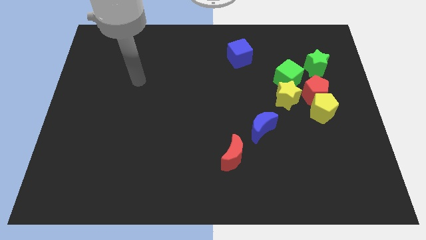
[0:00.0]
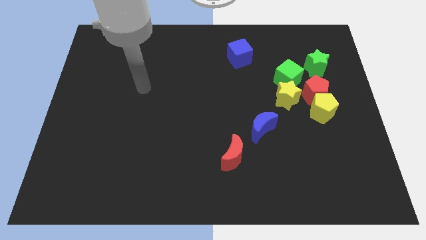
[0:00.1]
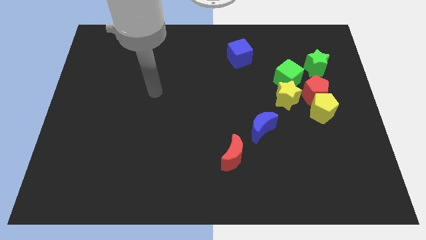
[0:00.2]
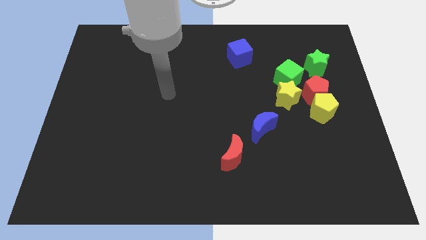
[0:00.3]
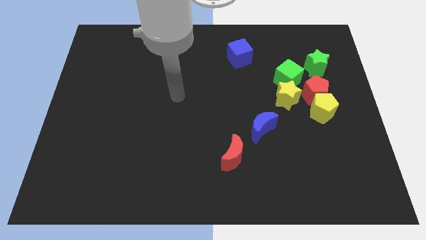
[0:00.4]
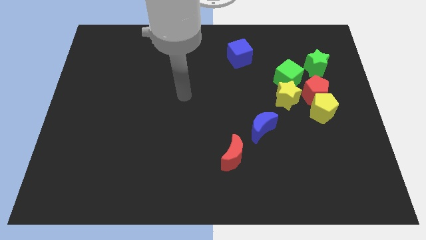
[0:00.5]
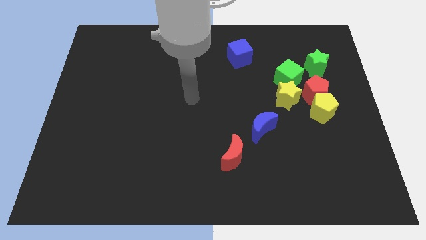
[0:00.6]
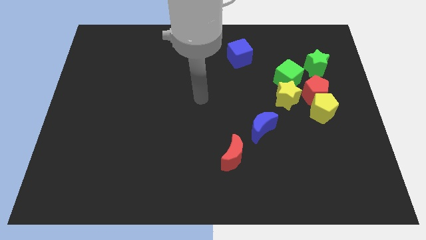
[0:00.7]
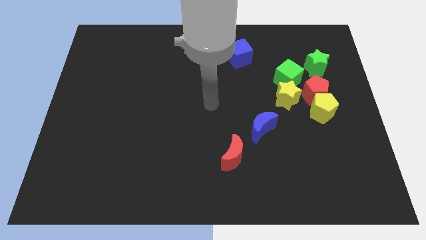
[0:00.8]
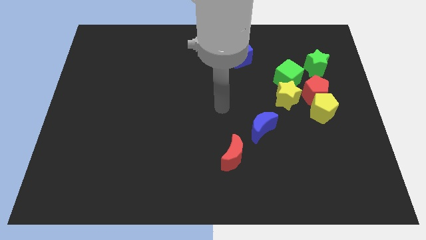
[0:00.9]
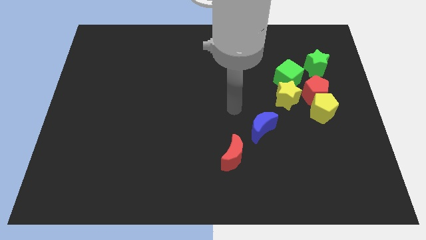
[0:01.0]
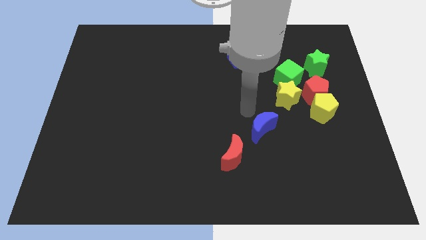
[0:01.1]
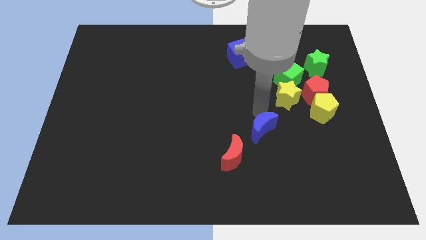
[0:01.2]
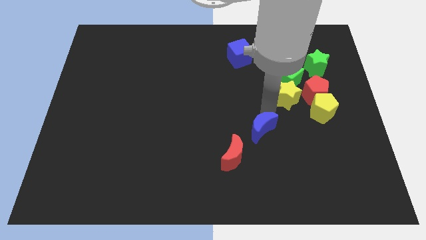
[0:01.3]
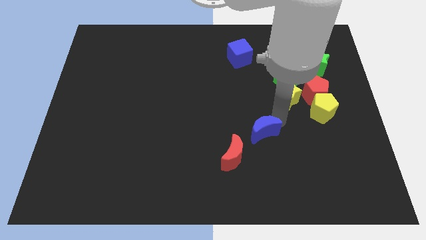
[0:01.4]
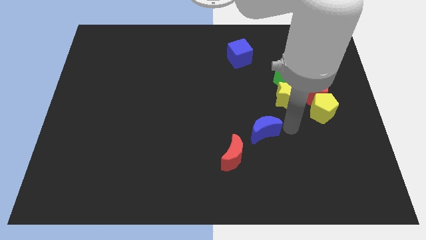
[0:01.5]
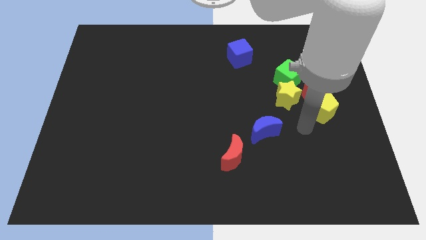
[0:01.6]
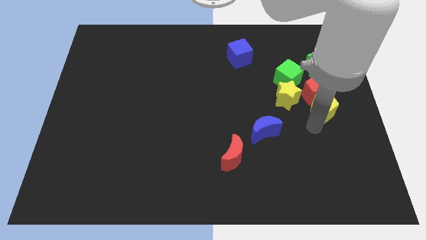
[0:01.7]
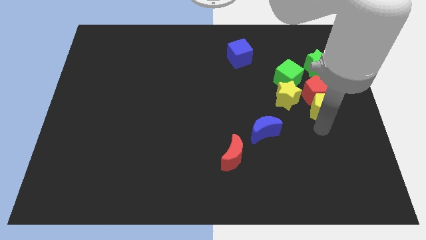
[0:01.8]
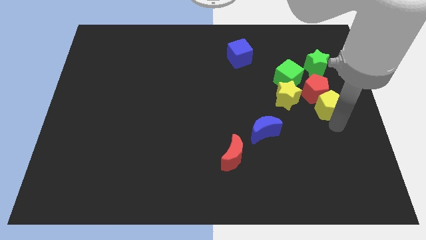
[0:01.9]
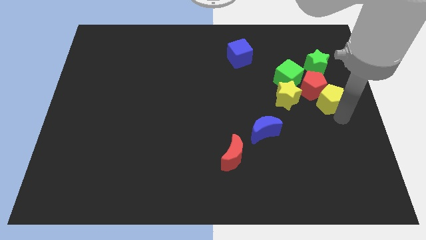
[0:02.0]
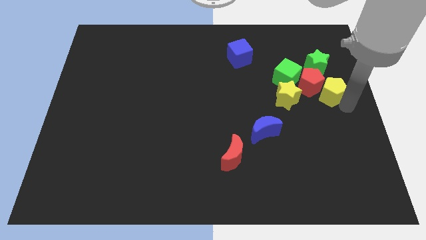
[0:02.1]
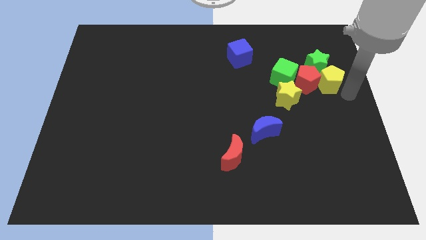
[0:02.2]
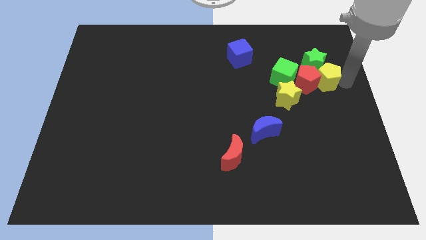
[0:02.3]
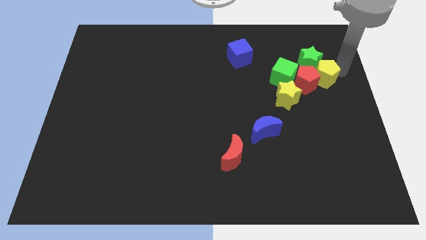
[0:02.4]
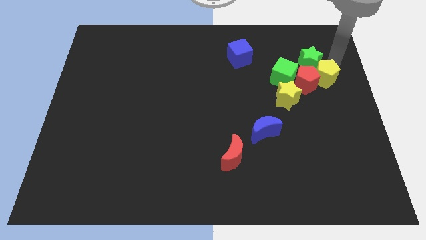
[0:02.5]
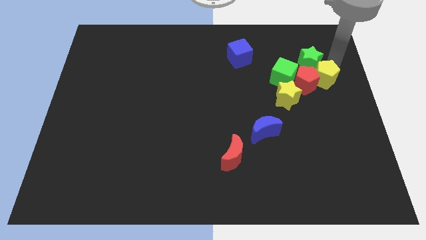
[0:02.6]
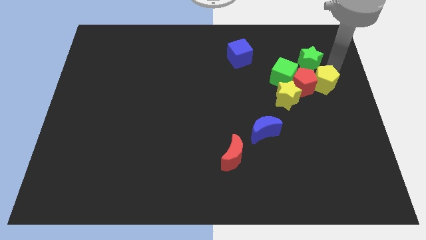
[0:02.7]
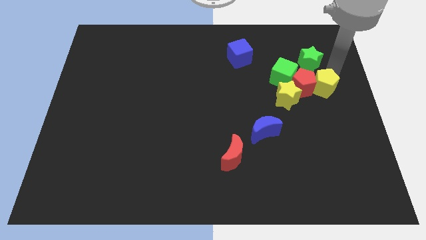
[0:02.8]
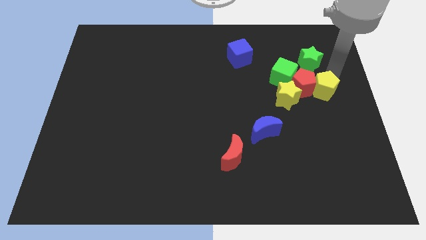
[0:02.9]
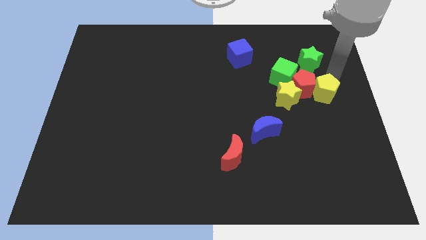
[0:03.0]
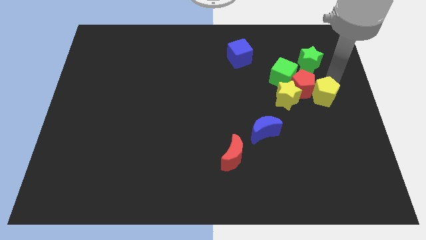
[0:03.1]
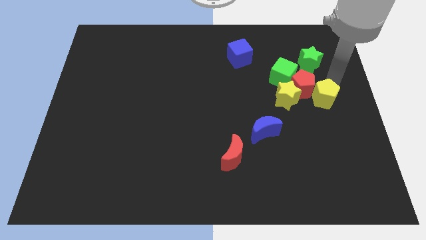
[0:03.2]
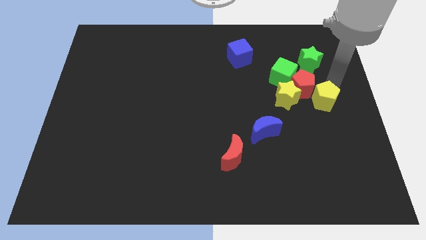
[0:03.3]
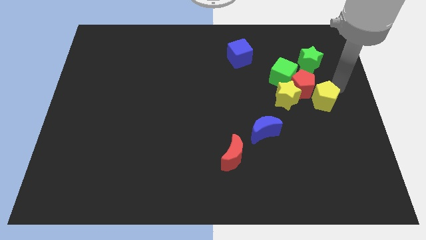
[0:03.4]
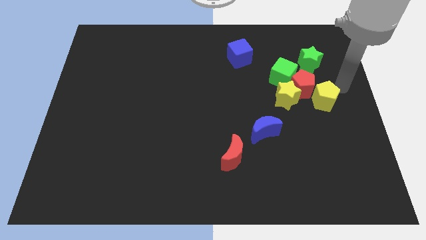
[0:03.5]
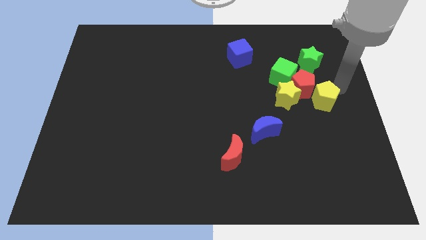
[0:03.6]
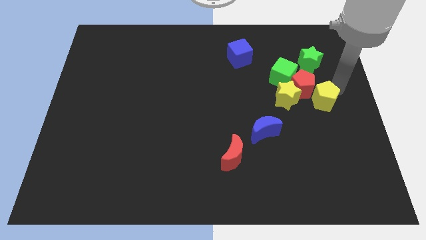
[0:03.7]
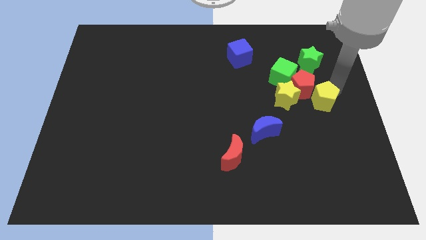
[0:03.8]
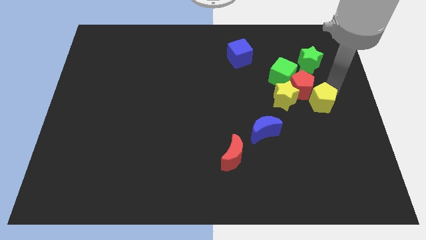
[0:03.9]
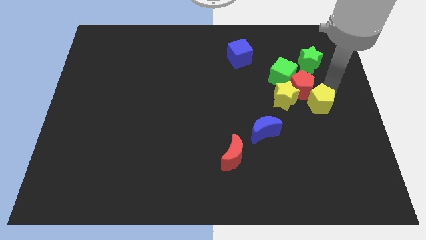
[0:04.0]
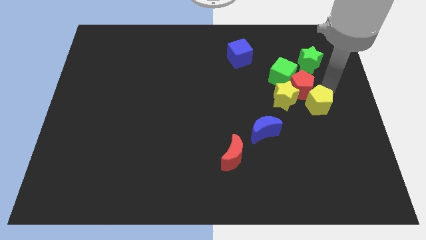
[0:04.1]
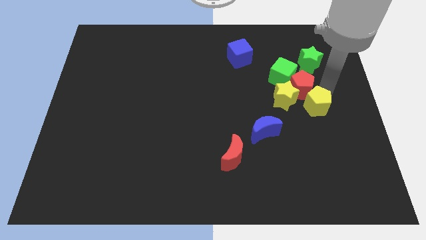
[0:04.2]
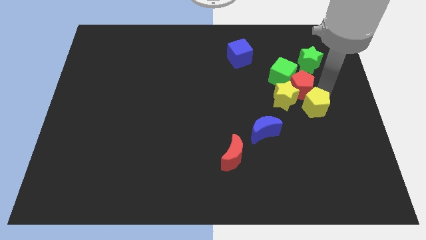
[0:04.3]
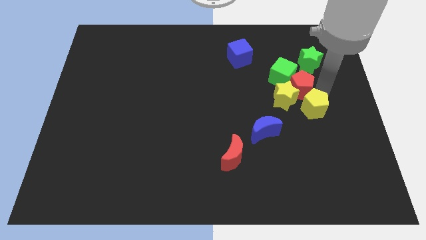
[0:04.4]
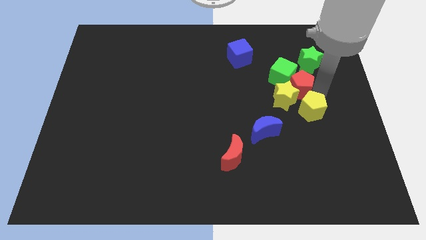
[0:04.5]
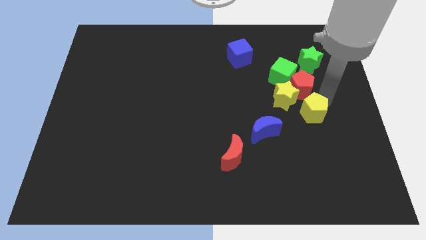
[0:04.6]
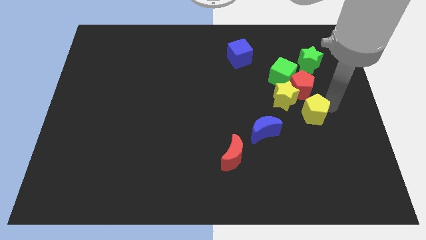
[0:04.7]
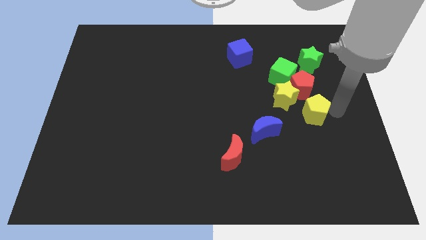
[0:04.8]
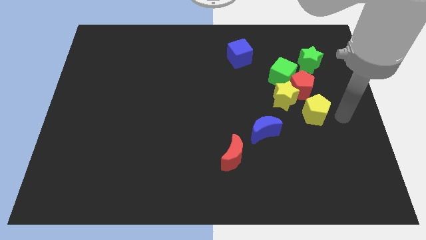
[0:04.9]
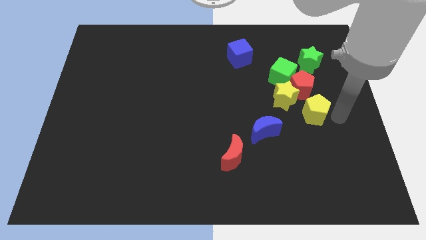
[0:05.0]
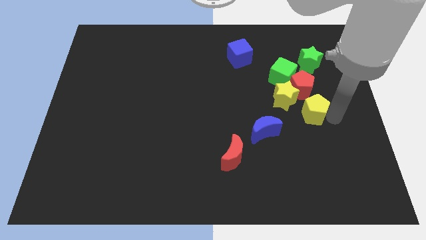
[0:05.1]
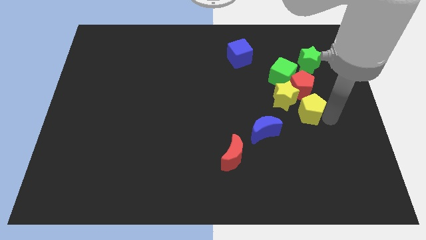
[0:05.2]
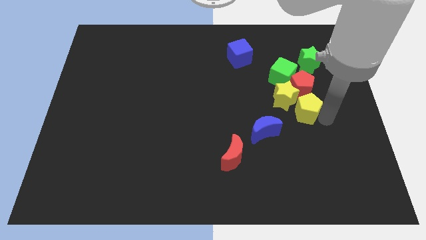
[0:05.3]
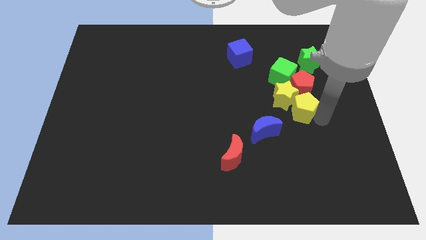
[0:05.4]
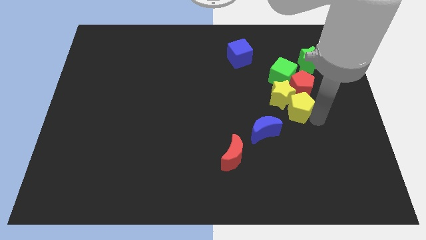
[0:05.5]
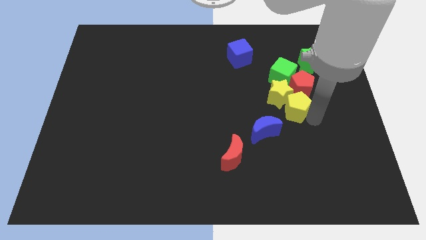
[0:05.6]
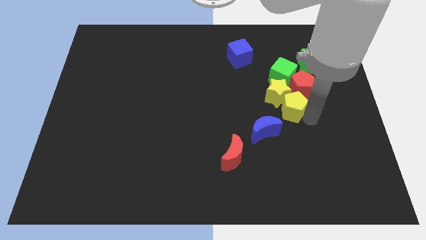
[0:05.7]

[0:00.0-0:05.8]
slightly move the yellow pentagon to the left

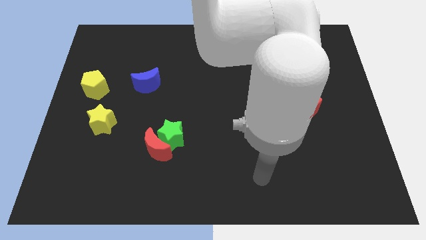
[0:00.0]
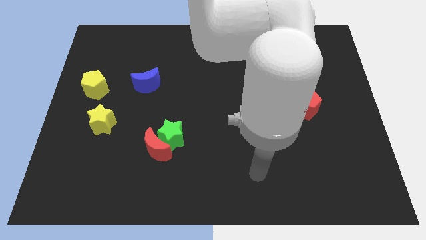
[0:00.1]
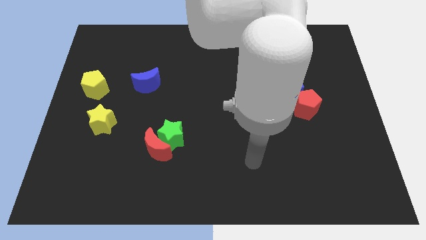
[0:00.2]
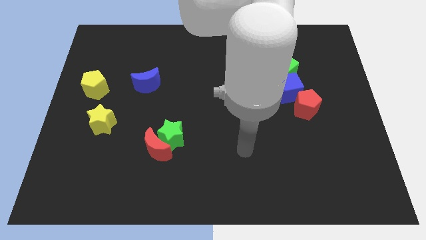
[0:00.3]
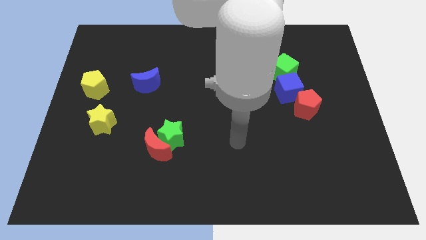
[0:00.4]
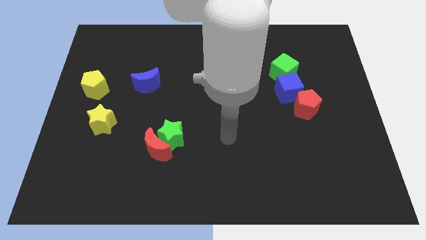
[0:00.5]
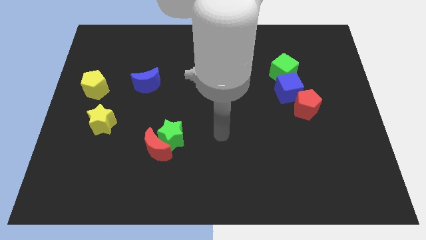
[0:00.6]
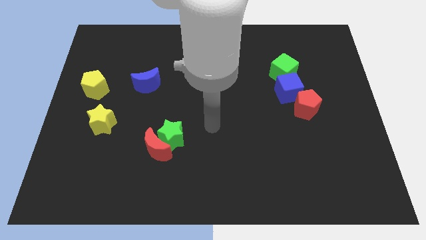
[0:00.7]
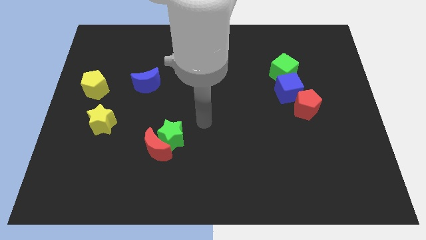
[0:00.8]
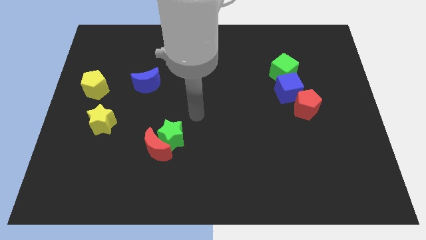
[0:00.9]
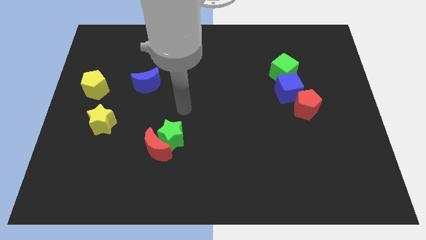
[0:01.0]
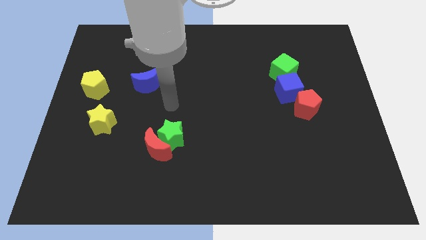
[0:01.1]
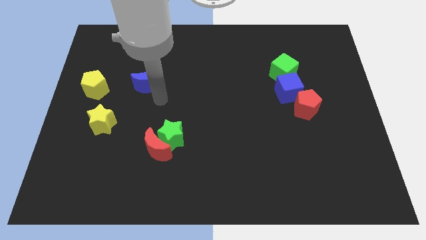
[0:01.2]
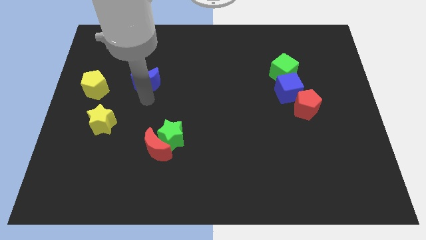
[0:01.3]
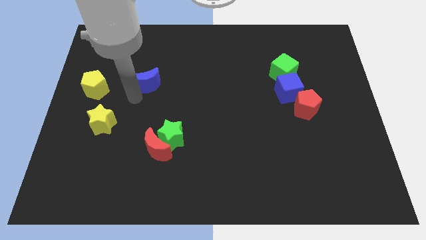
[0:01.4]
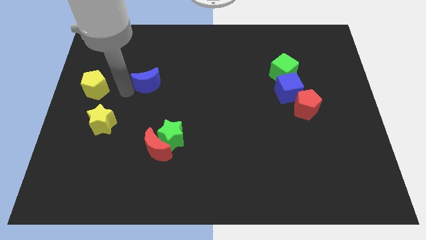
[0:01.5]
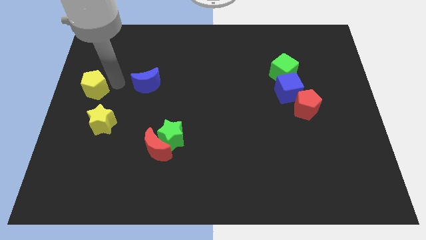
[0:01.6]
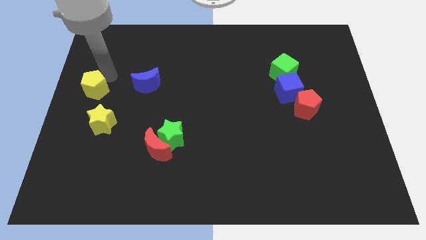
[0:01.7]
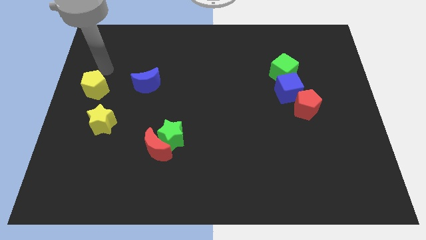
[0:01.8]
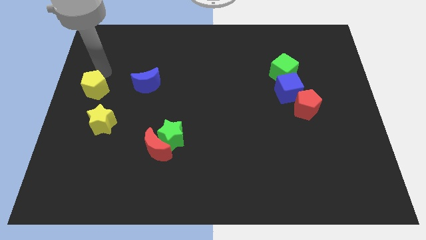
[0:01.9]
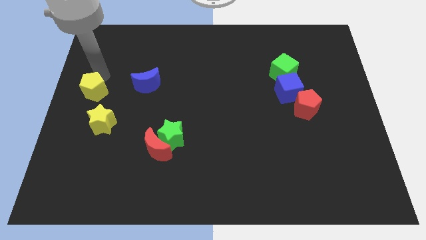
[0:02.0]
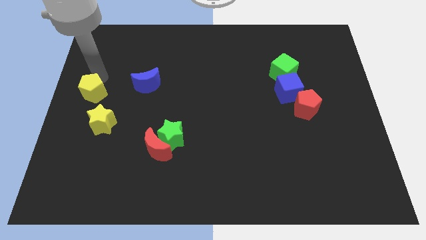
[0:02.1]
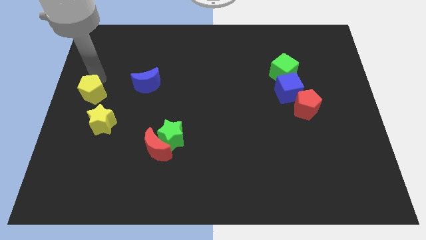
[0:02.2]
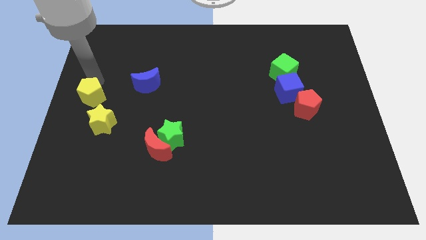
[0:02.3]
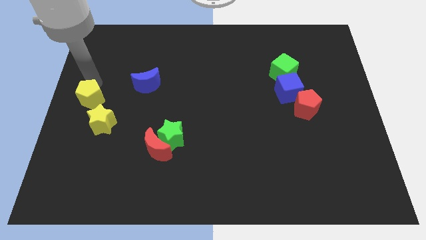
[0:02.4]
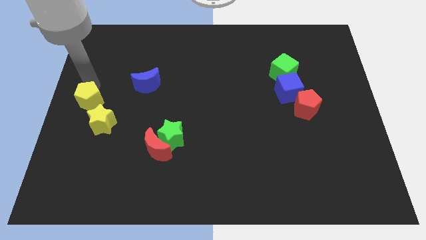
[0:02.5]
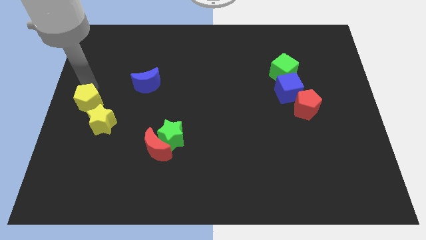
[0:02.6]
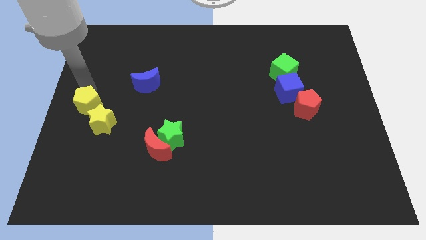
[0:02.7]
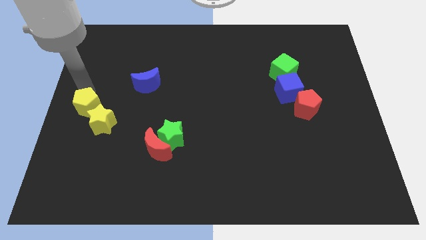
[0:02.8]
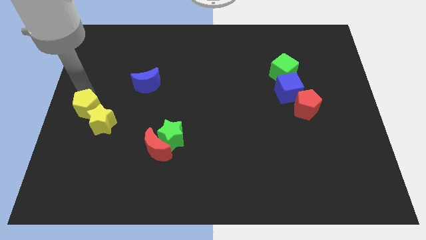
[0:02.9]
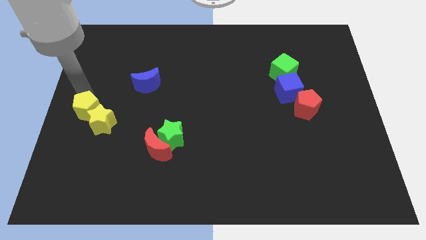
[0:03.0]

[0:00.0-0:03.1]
slightly slide the yellow pentagon downwards
